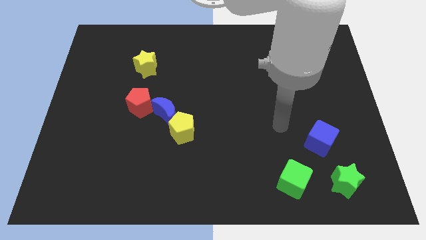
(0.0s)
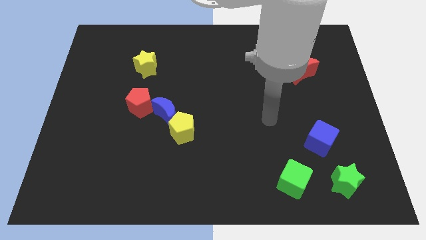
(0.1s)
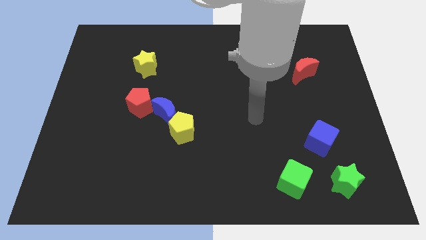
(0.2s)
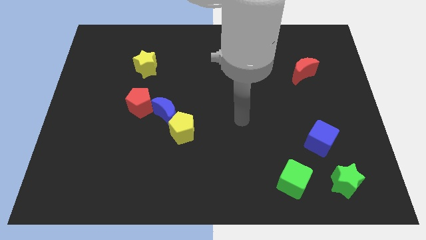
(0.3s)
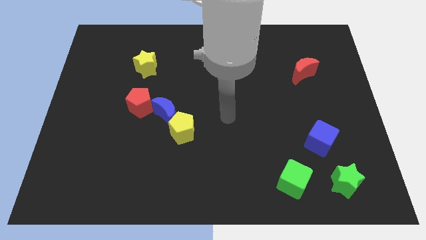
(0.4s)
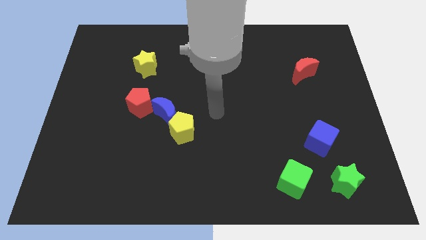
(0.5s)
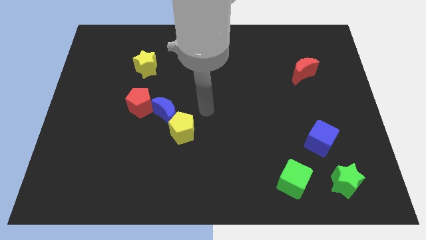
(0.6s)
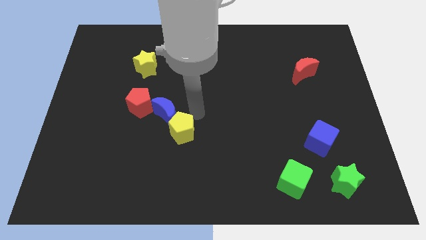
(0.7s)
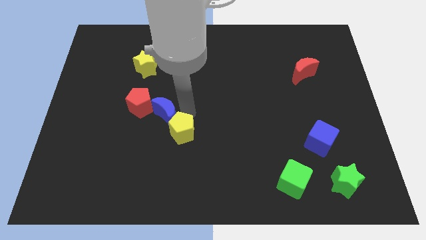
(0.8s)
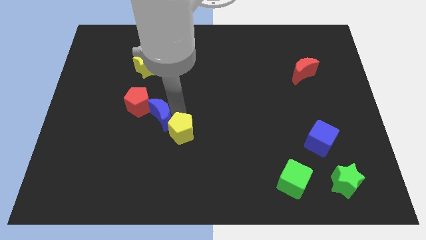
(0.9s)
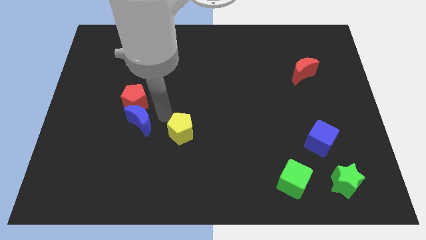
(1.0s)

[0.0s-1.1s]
pull the yellow pentagon apart from the blue moon

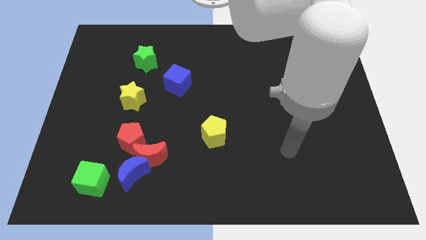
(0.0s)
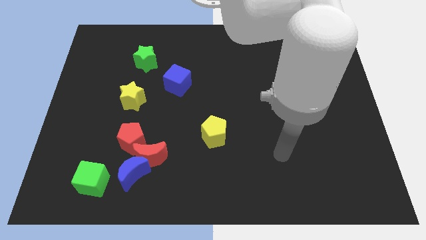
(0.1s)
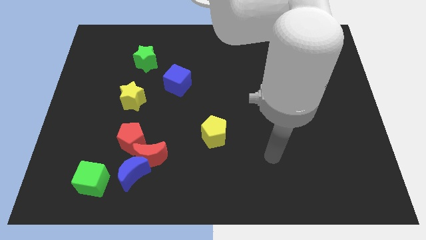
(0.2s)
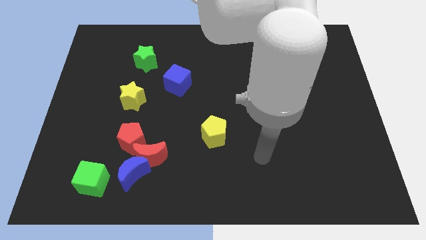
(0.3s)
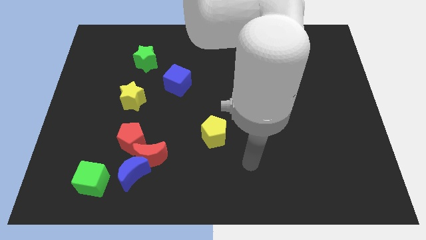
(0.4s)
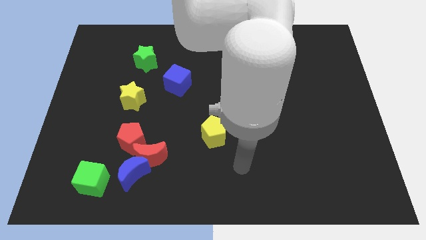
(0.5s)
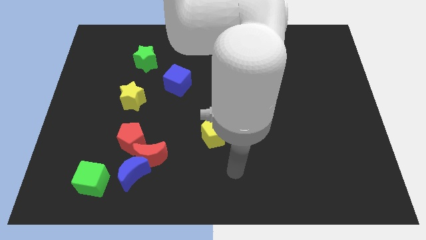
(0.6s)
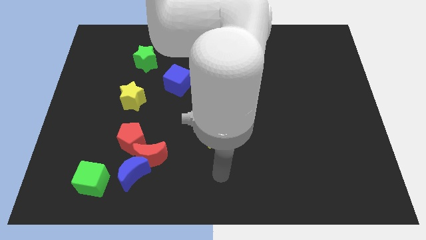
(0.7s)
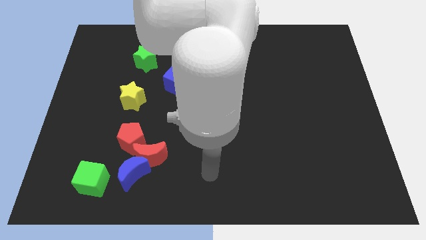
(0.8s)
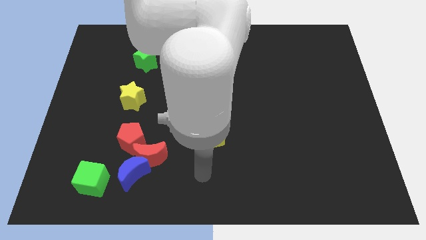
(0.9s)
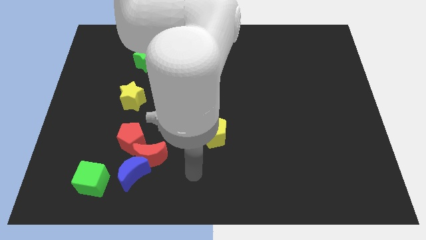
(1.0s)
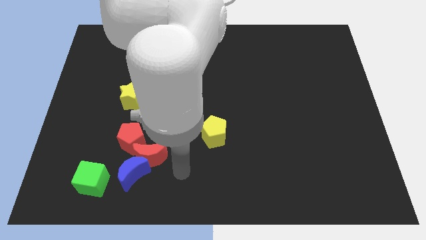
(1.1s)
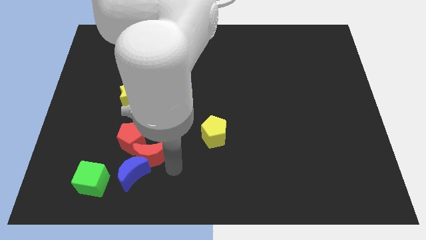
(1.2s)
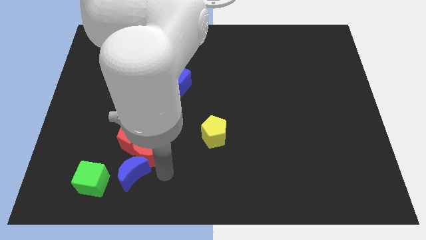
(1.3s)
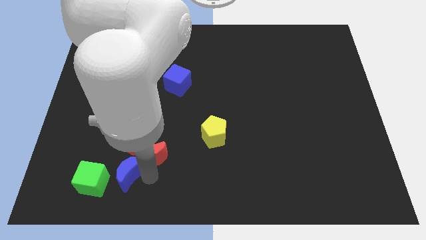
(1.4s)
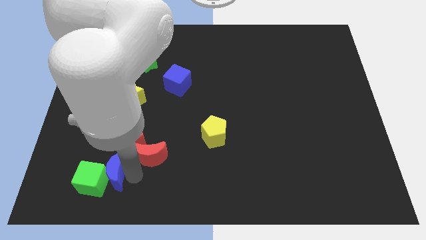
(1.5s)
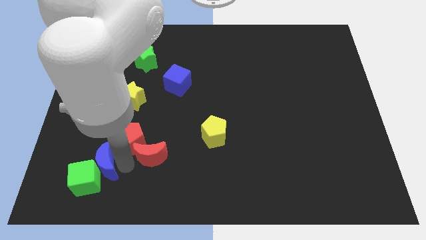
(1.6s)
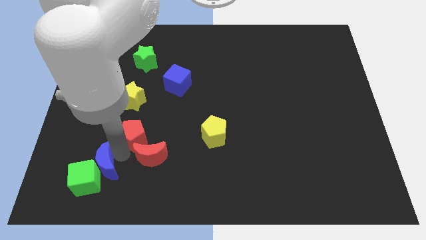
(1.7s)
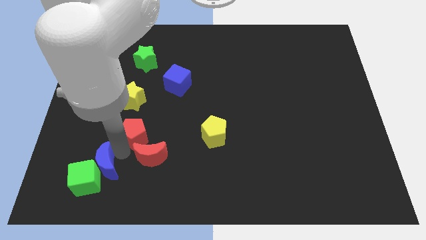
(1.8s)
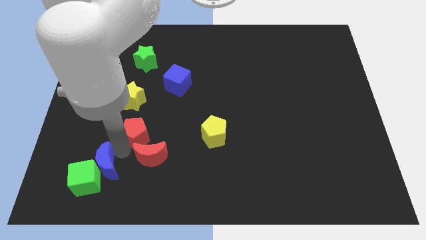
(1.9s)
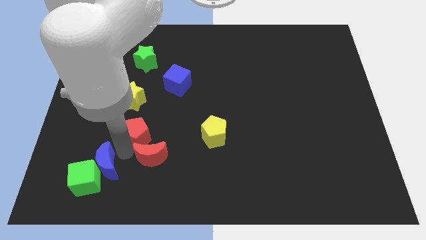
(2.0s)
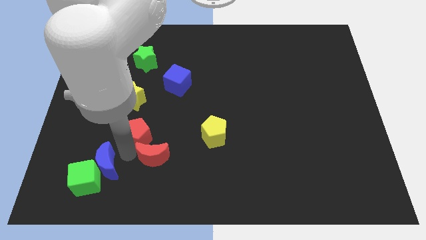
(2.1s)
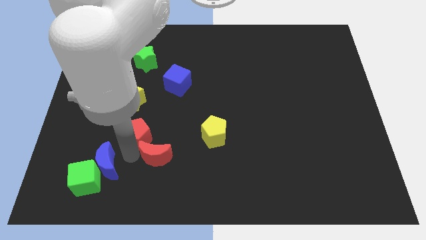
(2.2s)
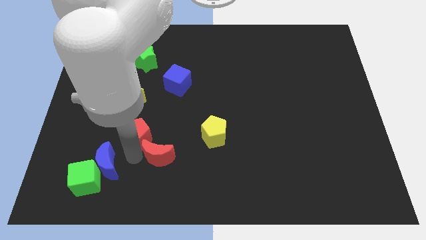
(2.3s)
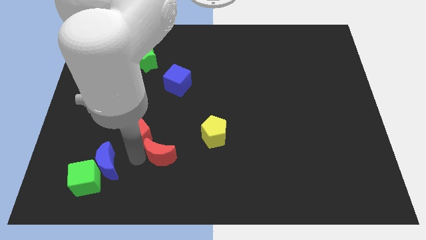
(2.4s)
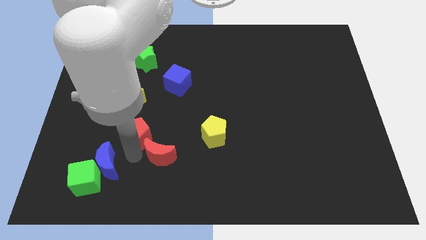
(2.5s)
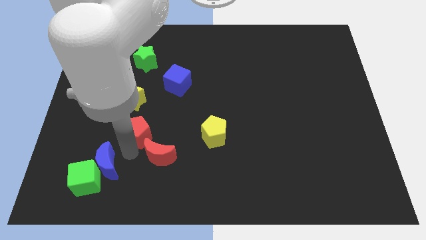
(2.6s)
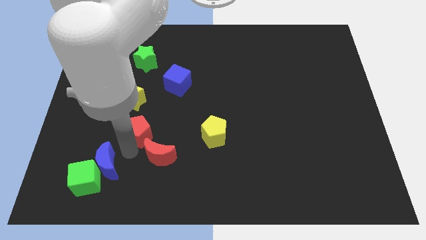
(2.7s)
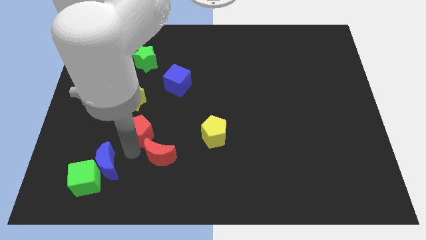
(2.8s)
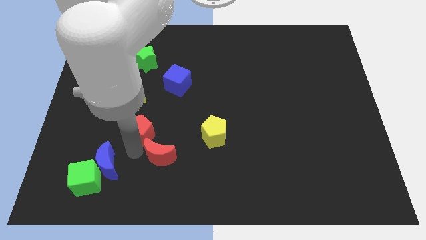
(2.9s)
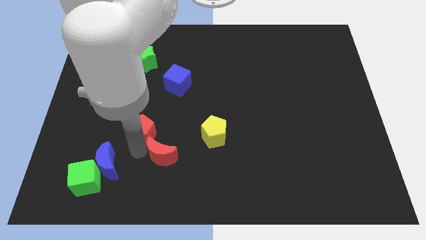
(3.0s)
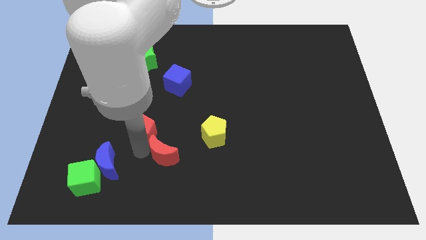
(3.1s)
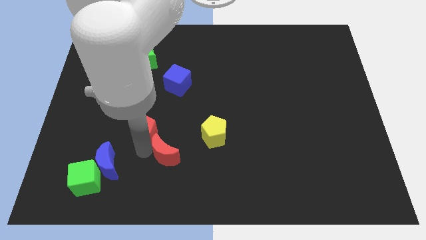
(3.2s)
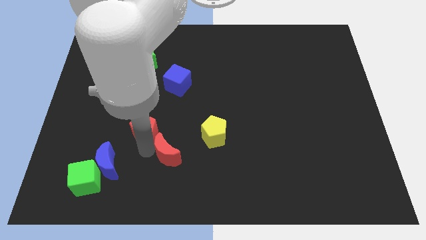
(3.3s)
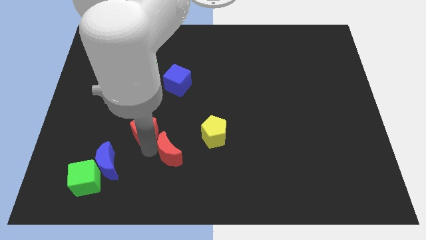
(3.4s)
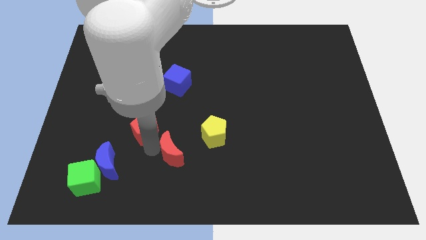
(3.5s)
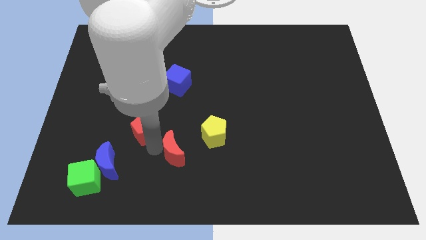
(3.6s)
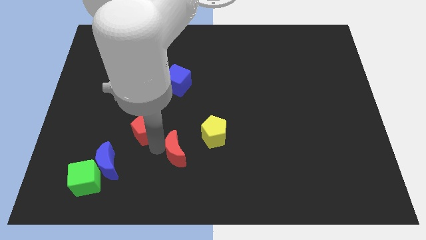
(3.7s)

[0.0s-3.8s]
move the red moon away from the blue moon and red pentagon

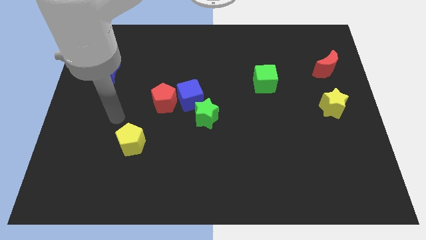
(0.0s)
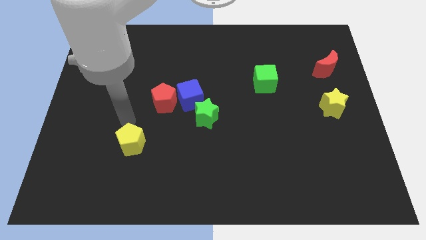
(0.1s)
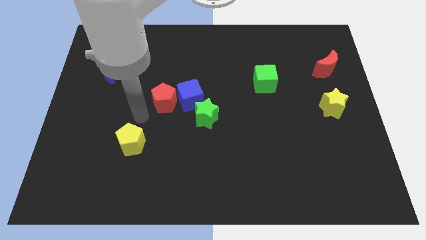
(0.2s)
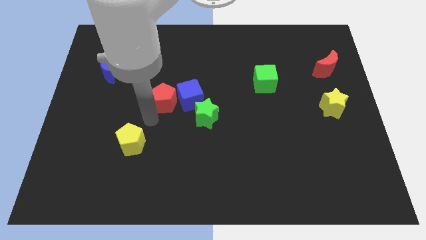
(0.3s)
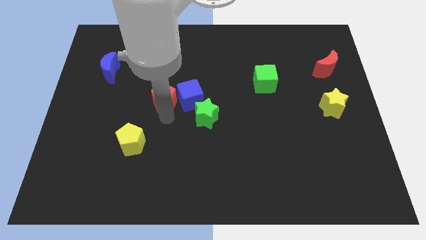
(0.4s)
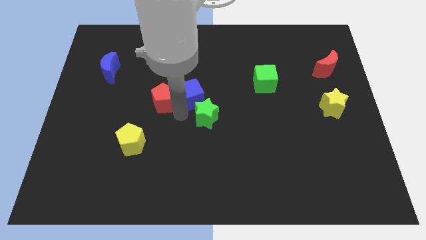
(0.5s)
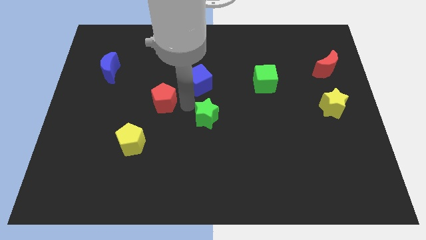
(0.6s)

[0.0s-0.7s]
pull the red pentagon apart from the blue cube

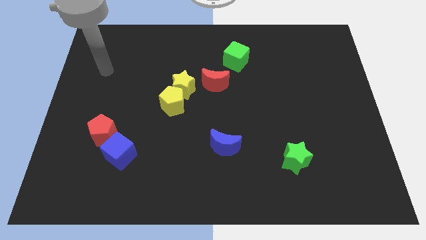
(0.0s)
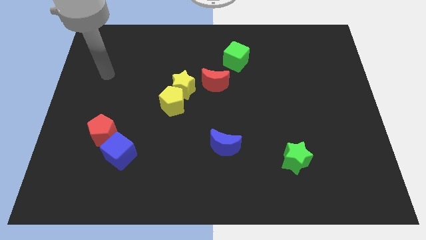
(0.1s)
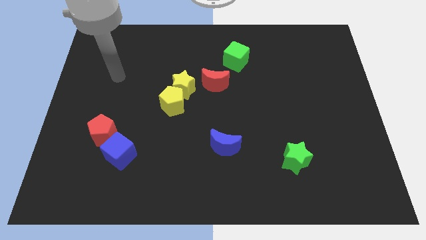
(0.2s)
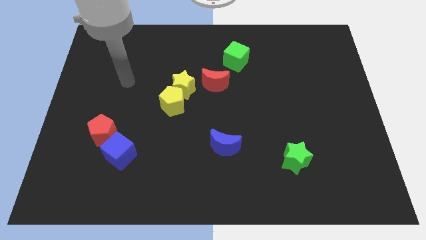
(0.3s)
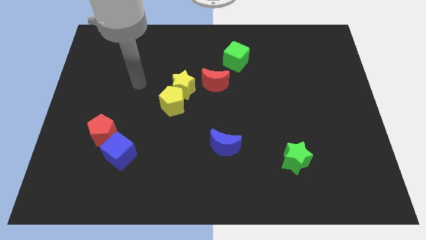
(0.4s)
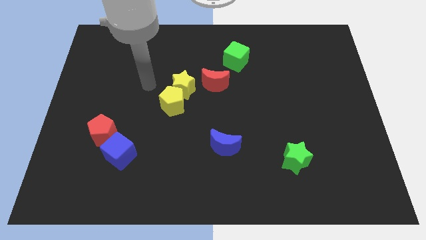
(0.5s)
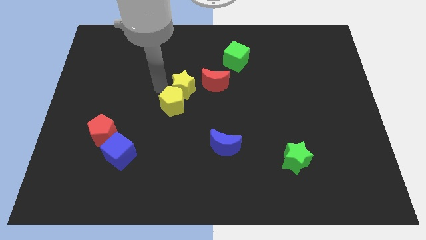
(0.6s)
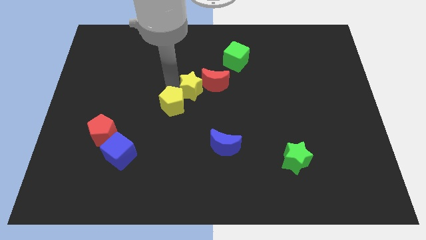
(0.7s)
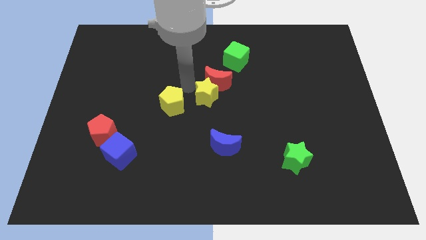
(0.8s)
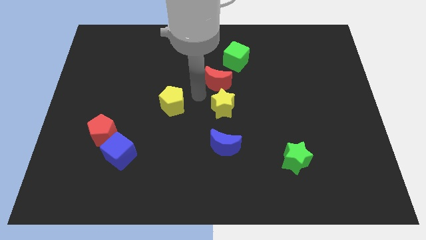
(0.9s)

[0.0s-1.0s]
pull the yellow pentagon apart from the yellow star

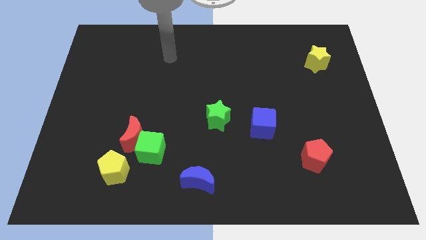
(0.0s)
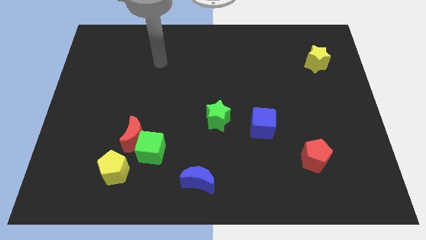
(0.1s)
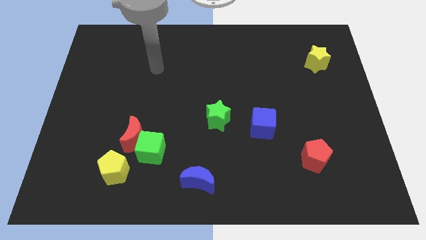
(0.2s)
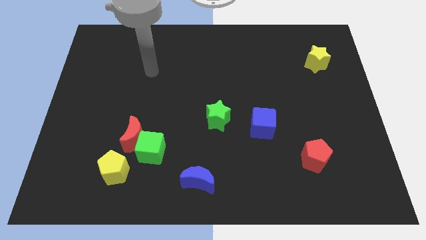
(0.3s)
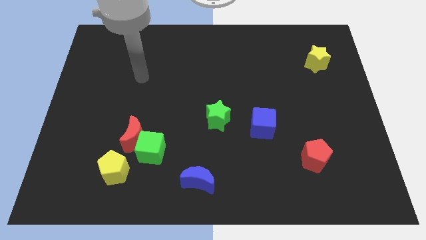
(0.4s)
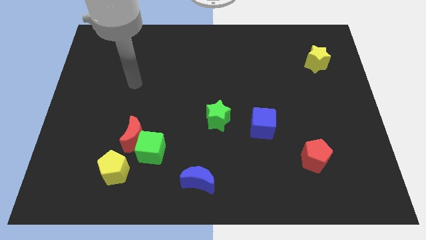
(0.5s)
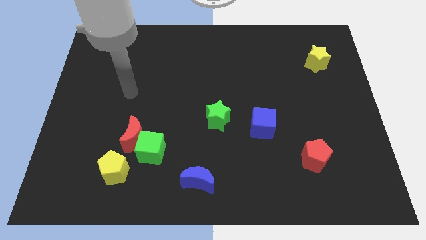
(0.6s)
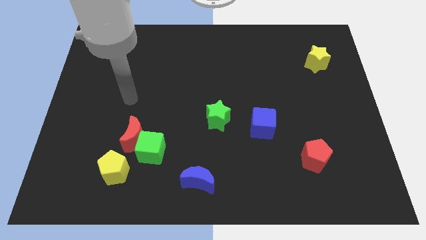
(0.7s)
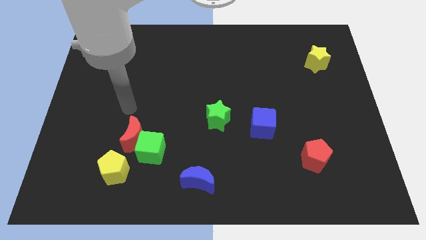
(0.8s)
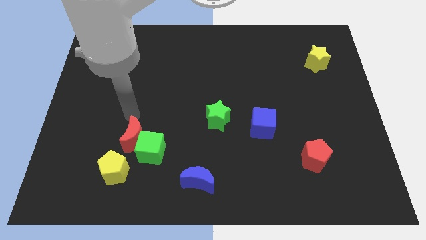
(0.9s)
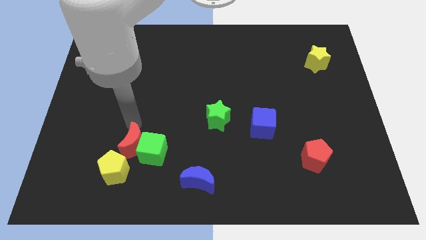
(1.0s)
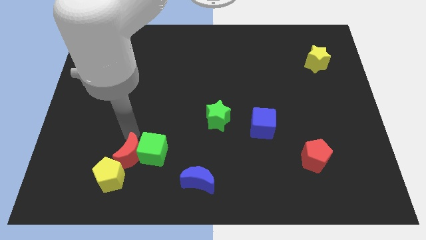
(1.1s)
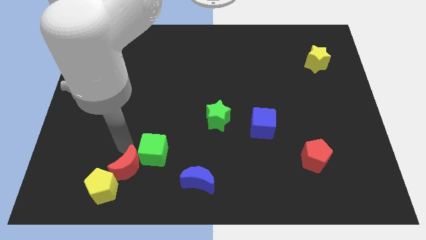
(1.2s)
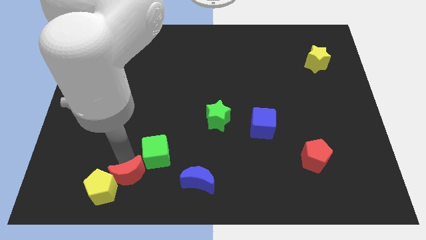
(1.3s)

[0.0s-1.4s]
move the green cube away from the red moon and yellow pentagon

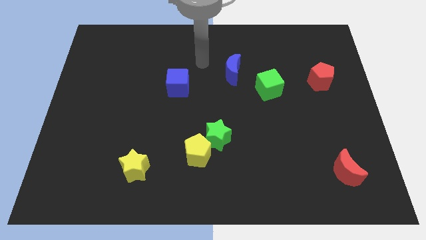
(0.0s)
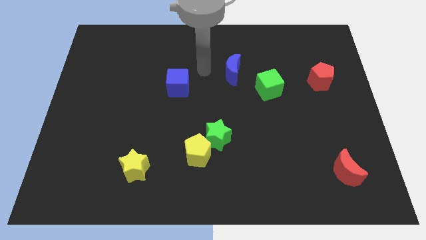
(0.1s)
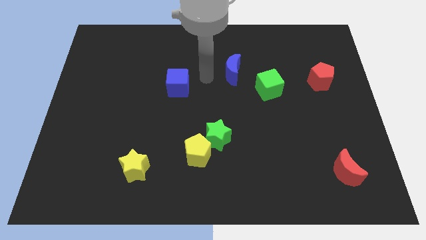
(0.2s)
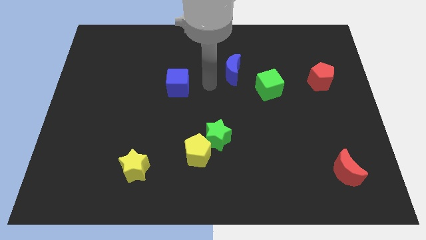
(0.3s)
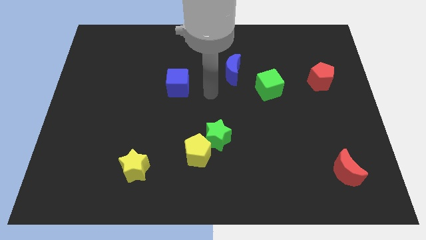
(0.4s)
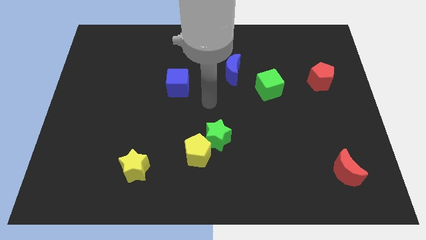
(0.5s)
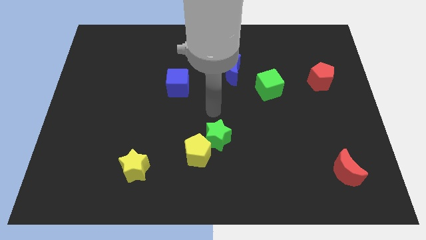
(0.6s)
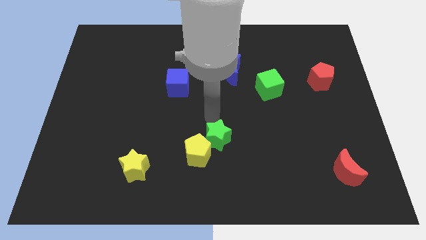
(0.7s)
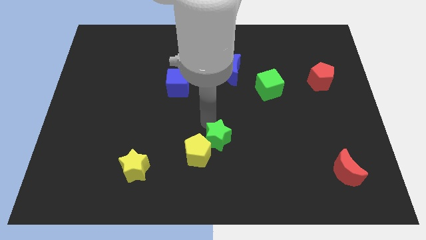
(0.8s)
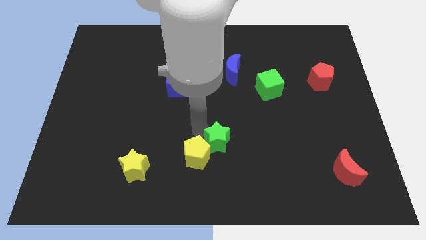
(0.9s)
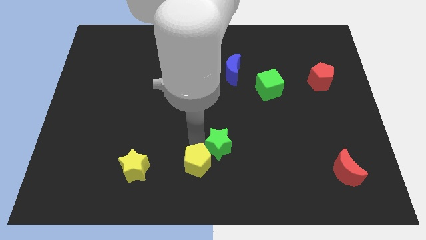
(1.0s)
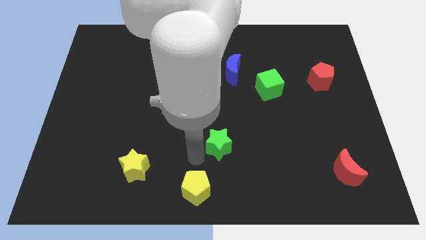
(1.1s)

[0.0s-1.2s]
separate the green star from the yellow pentagon
